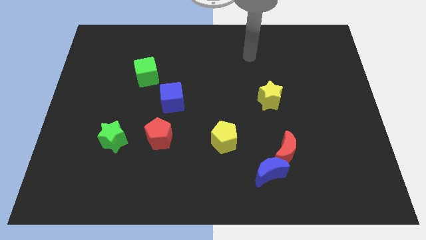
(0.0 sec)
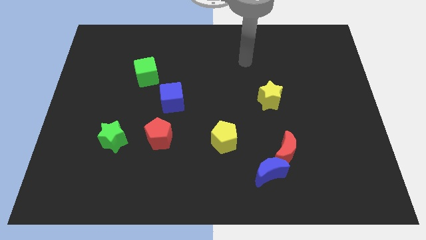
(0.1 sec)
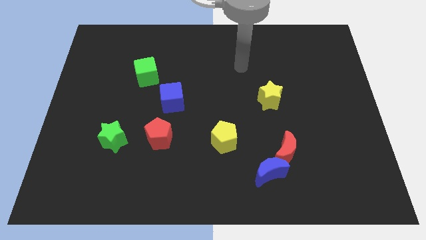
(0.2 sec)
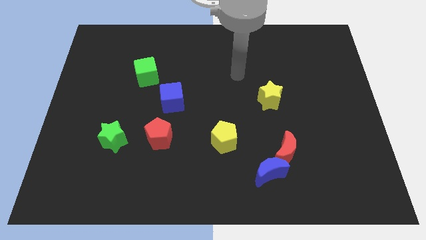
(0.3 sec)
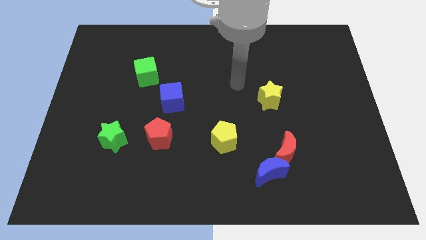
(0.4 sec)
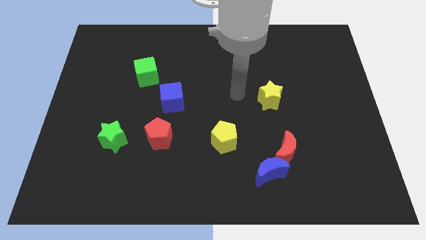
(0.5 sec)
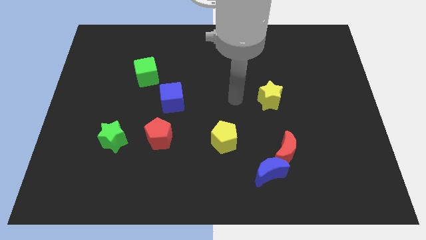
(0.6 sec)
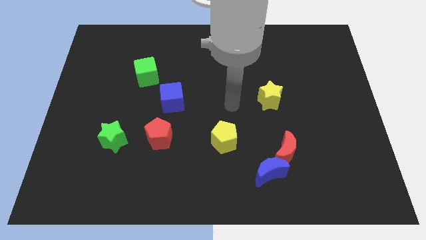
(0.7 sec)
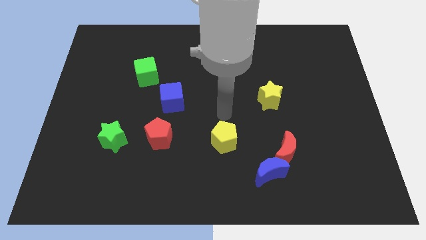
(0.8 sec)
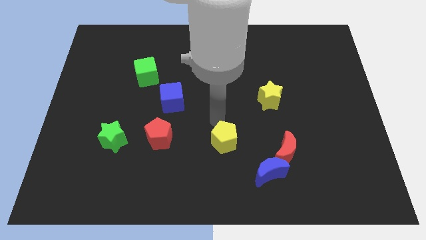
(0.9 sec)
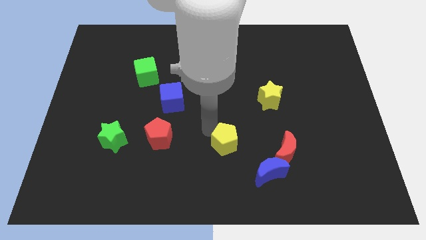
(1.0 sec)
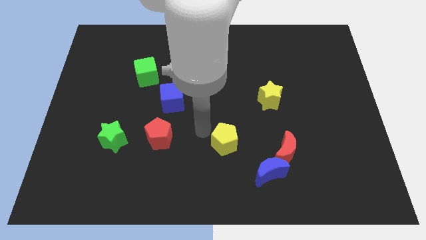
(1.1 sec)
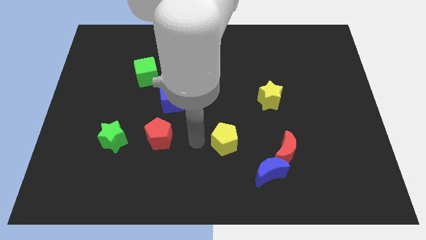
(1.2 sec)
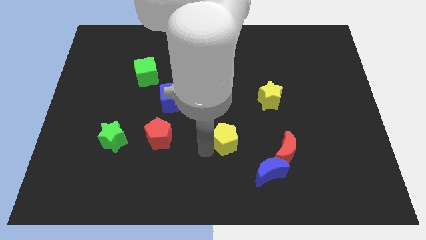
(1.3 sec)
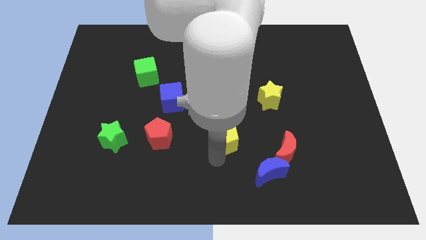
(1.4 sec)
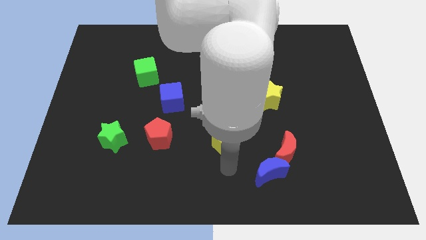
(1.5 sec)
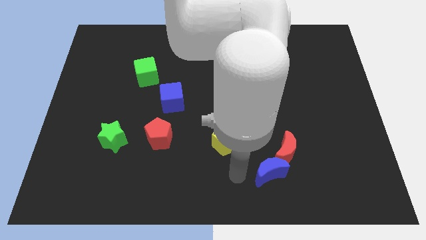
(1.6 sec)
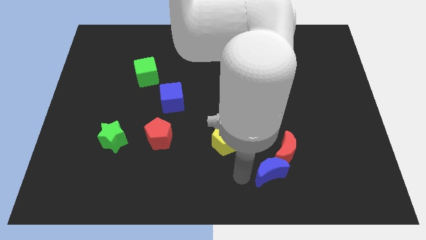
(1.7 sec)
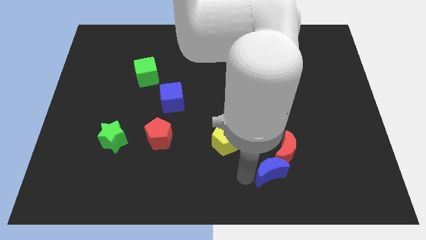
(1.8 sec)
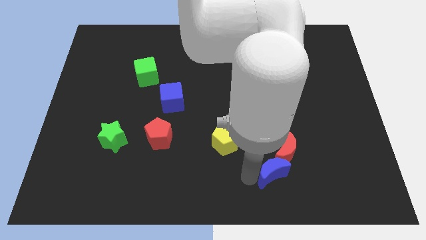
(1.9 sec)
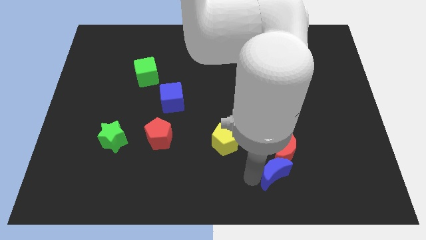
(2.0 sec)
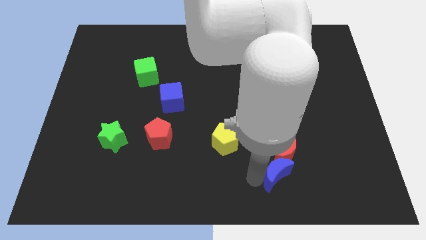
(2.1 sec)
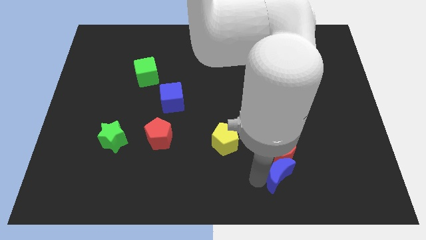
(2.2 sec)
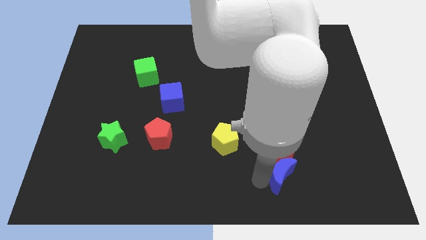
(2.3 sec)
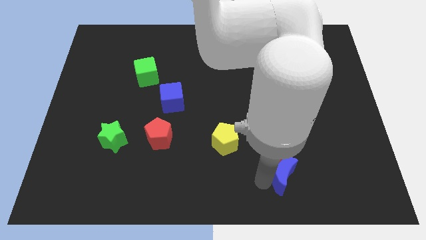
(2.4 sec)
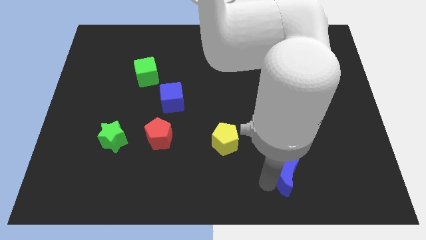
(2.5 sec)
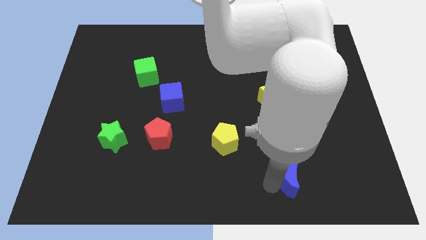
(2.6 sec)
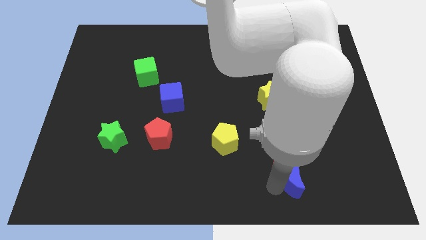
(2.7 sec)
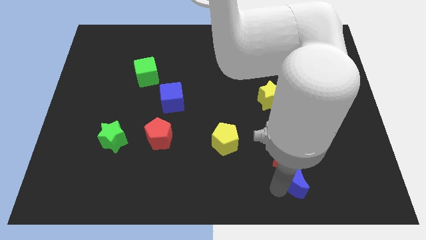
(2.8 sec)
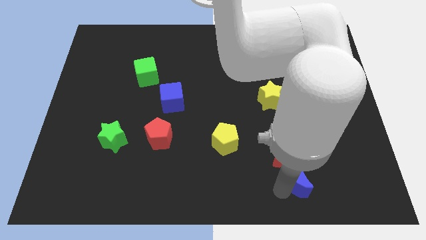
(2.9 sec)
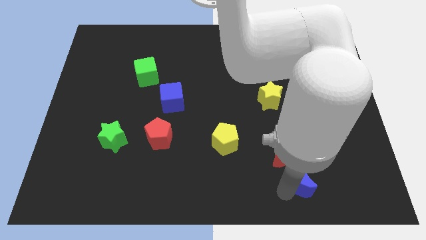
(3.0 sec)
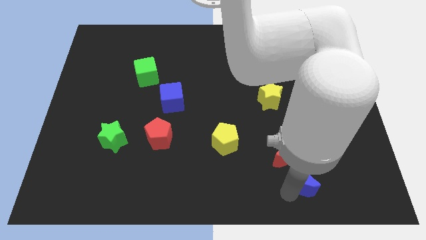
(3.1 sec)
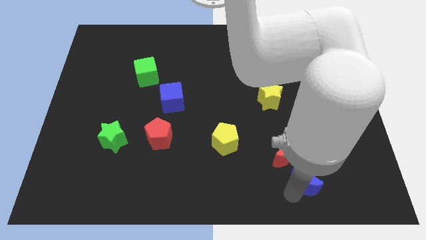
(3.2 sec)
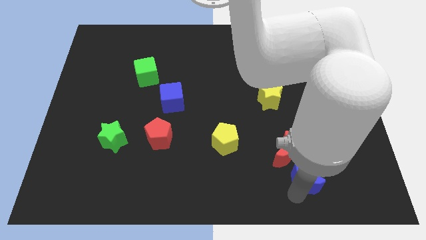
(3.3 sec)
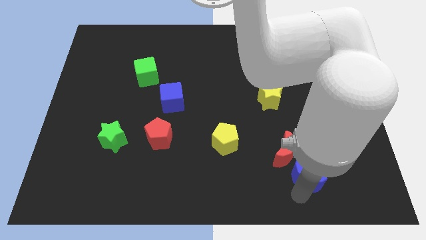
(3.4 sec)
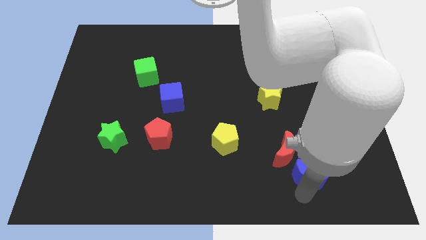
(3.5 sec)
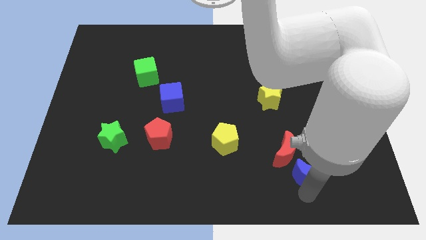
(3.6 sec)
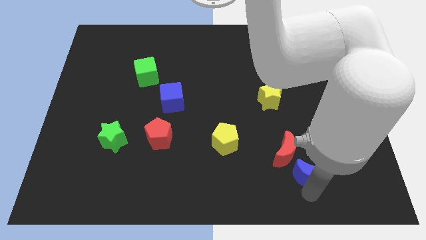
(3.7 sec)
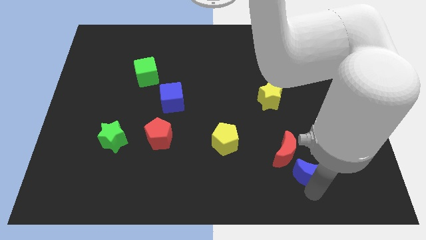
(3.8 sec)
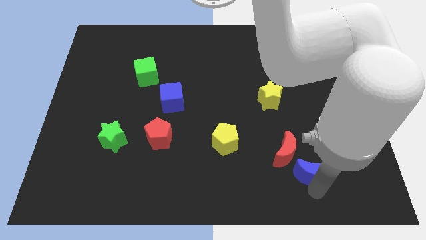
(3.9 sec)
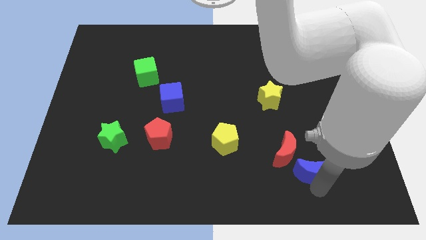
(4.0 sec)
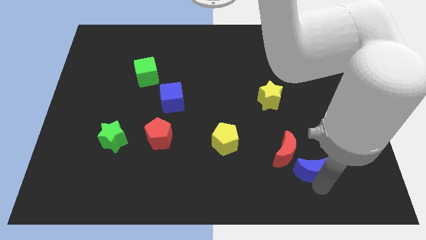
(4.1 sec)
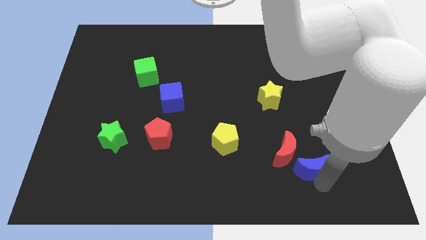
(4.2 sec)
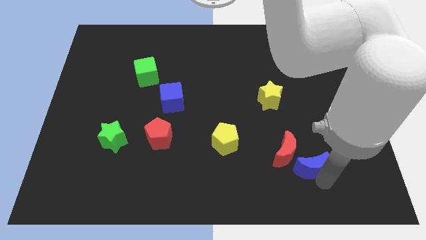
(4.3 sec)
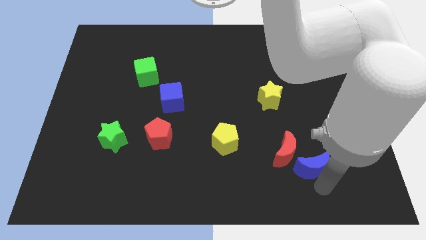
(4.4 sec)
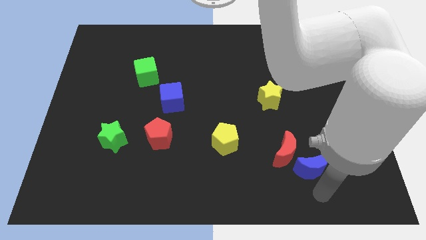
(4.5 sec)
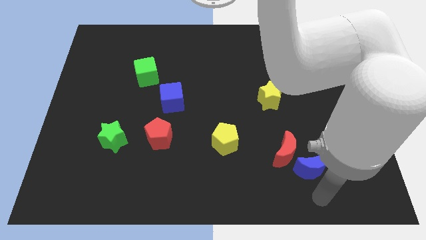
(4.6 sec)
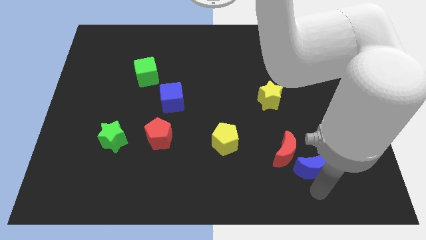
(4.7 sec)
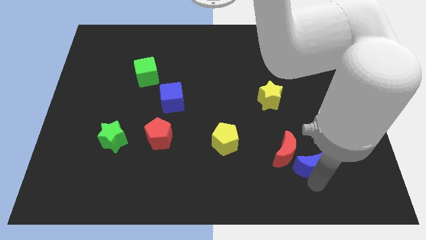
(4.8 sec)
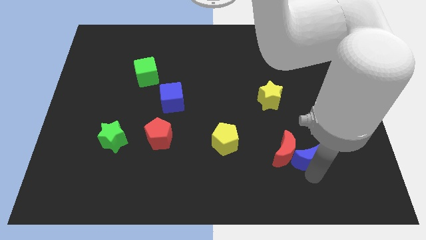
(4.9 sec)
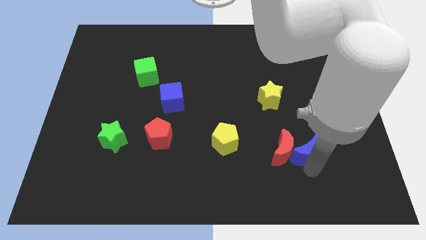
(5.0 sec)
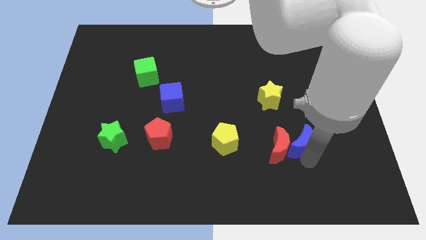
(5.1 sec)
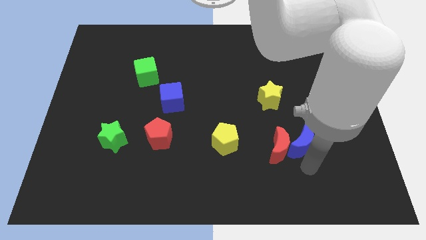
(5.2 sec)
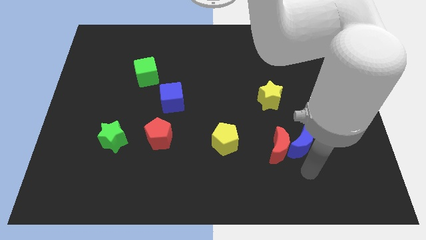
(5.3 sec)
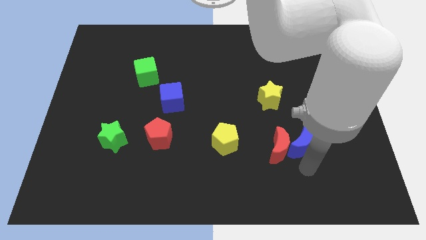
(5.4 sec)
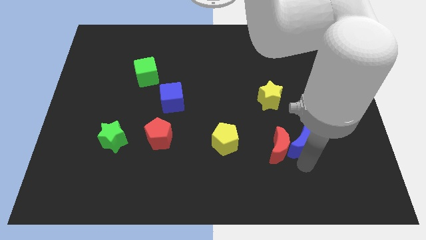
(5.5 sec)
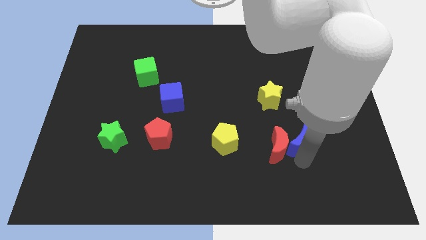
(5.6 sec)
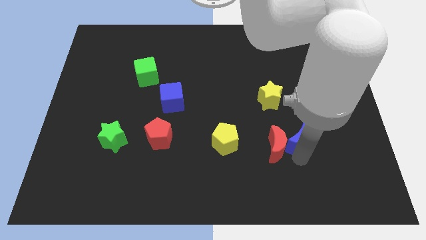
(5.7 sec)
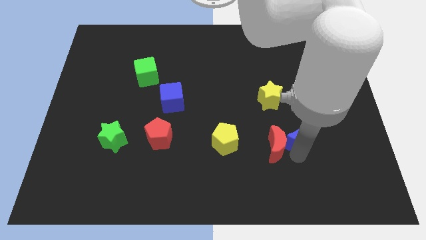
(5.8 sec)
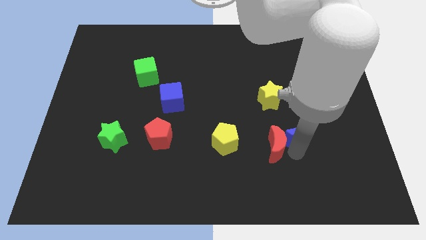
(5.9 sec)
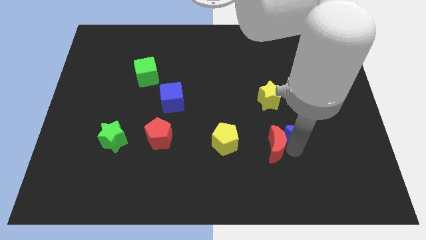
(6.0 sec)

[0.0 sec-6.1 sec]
slide the blue moon to the bottom right of the yellow star

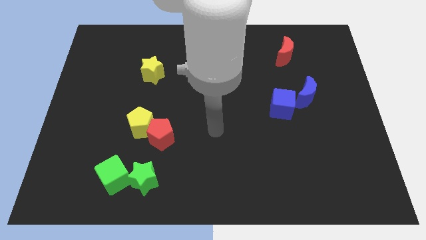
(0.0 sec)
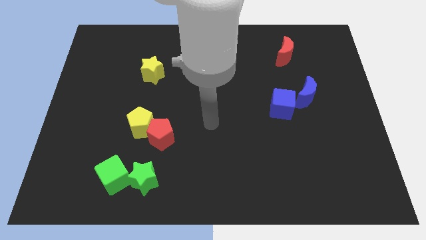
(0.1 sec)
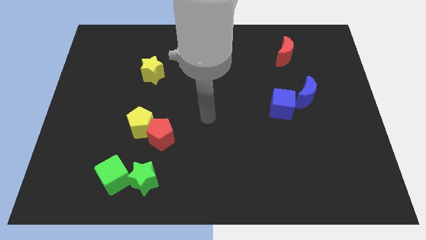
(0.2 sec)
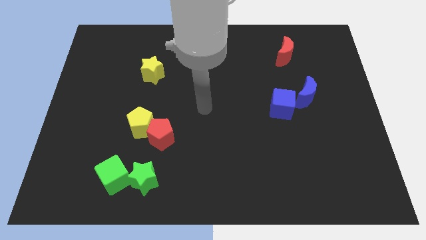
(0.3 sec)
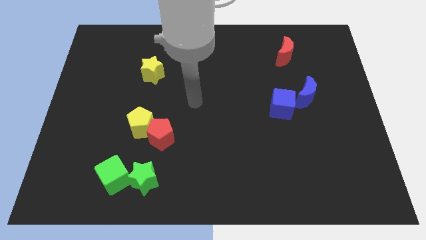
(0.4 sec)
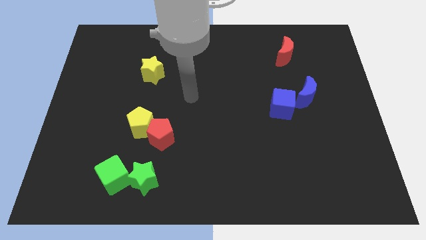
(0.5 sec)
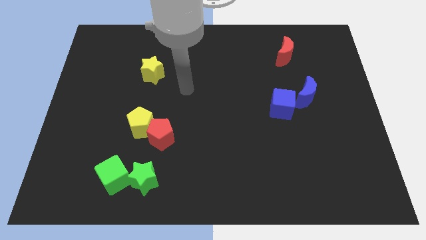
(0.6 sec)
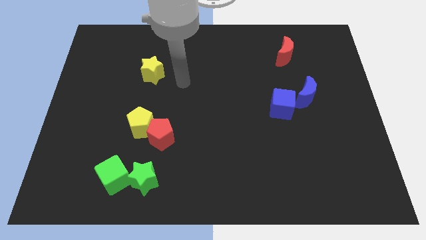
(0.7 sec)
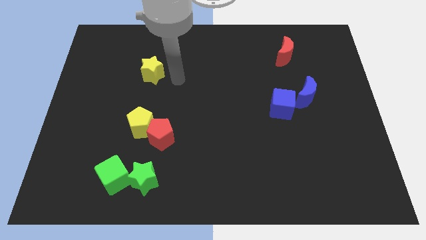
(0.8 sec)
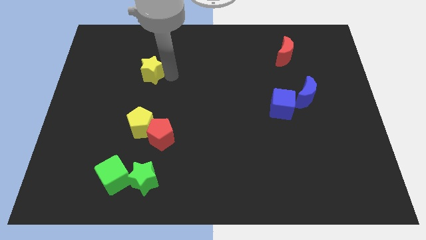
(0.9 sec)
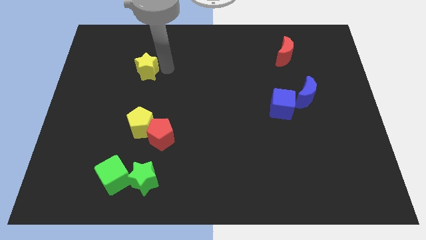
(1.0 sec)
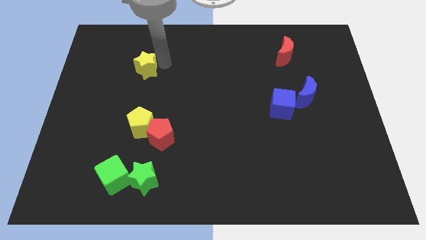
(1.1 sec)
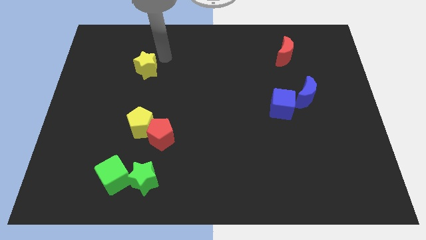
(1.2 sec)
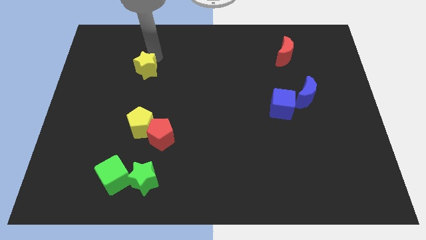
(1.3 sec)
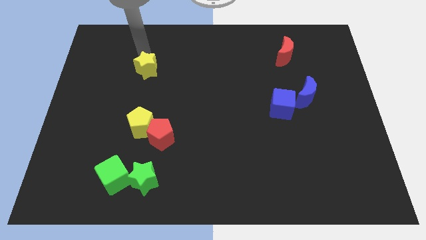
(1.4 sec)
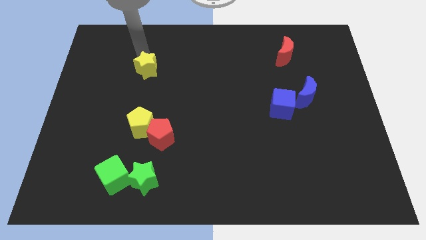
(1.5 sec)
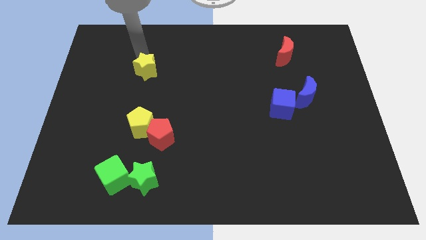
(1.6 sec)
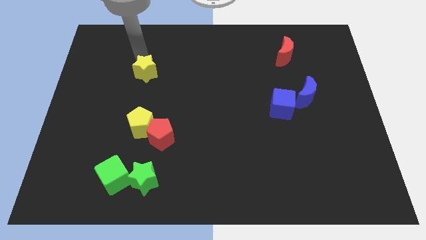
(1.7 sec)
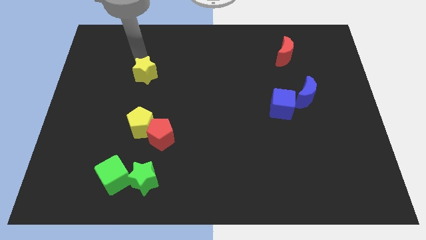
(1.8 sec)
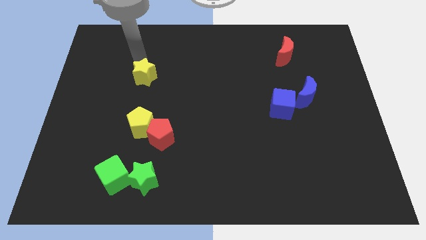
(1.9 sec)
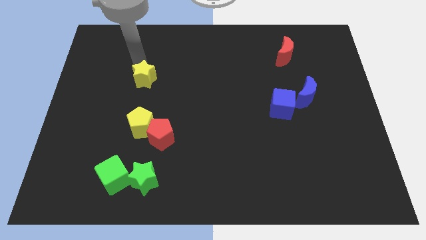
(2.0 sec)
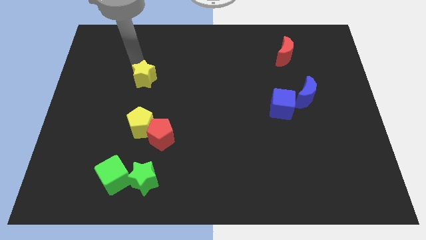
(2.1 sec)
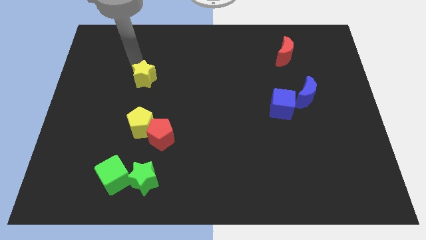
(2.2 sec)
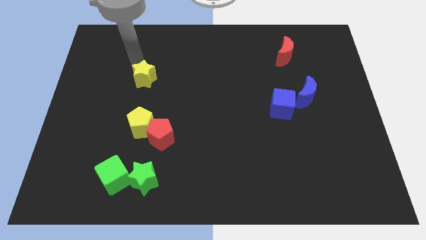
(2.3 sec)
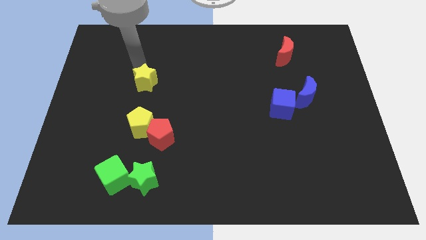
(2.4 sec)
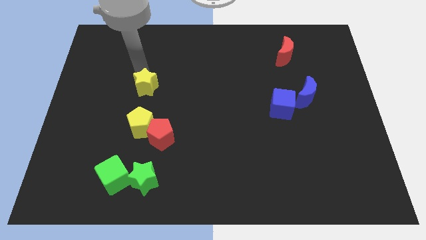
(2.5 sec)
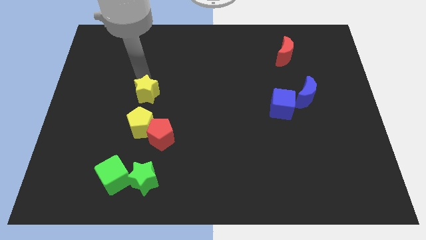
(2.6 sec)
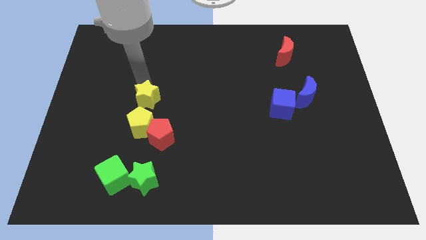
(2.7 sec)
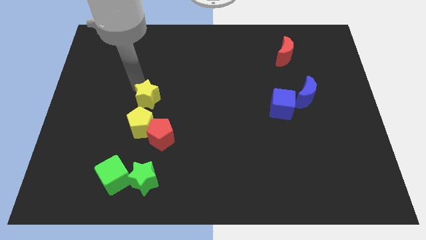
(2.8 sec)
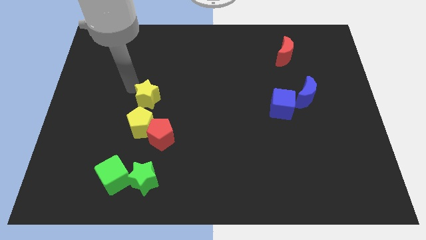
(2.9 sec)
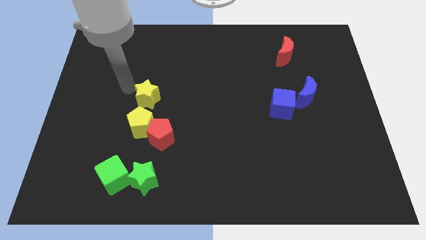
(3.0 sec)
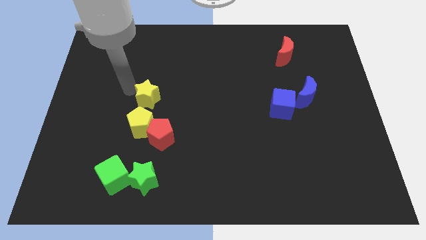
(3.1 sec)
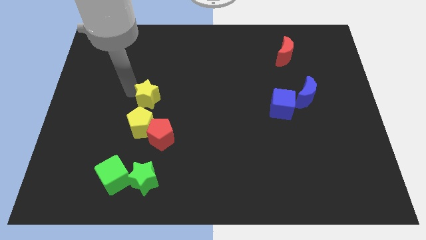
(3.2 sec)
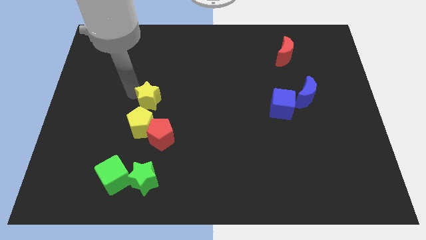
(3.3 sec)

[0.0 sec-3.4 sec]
put the yellow star diagonally up and to the right of the yellow pentagon
